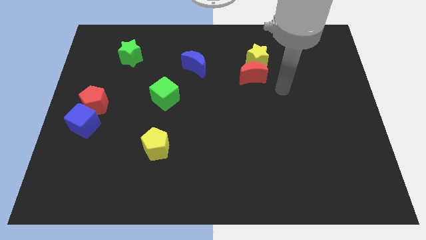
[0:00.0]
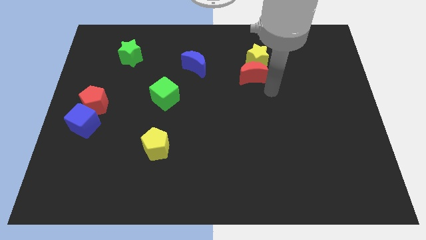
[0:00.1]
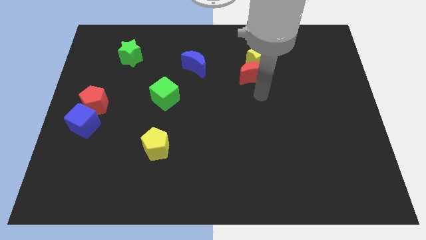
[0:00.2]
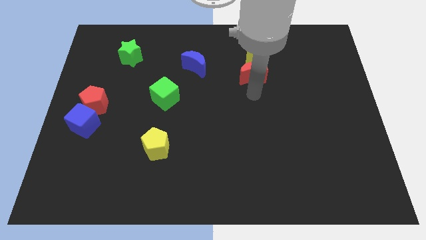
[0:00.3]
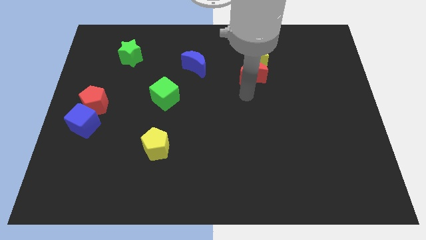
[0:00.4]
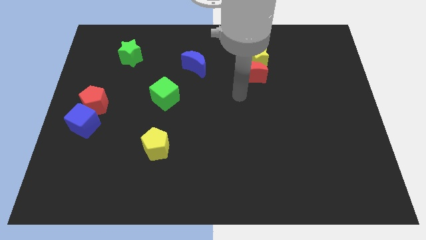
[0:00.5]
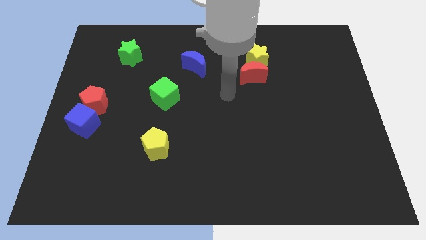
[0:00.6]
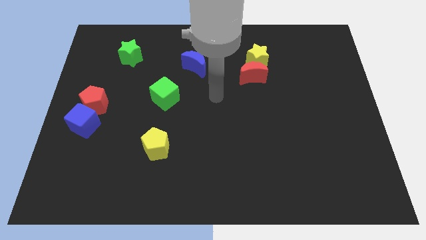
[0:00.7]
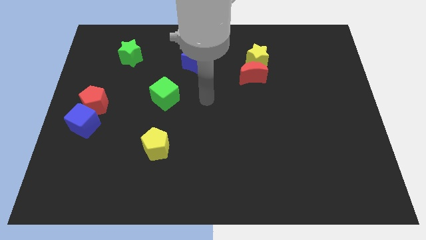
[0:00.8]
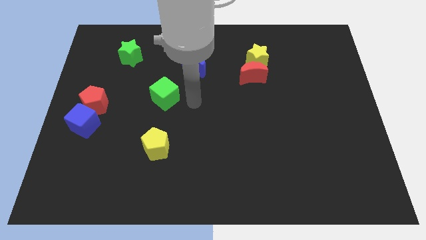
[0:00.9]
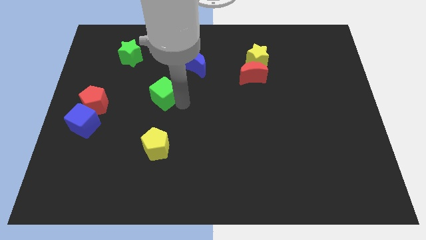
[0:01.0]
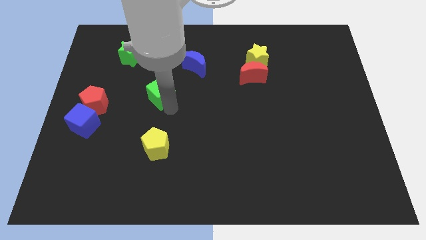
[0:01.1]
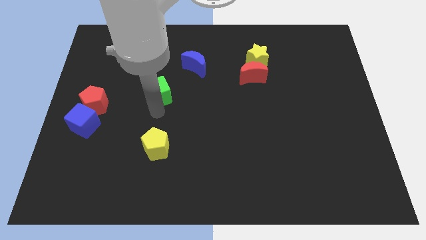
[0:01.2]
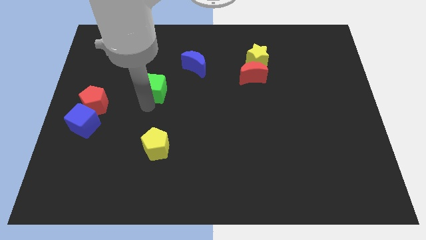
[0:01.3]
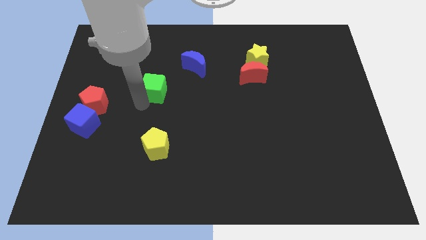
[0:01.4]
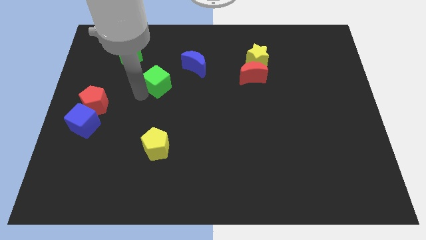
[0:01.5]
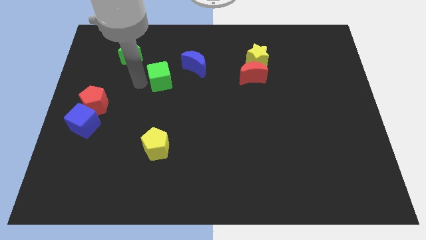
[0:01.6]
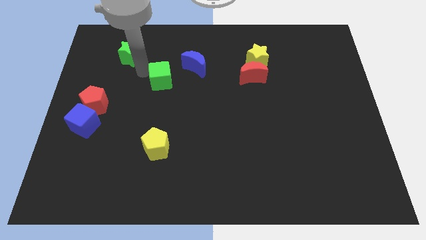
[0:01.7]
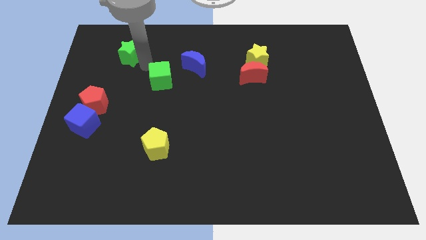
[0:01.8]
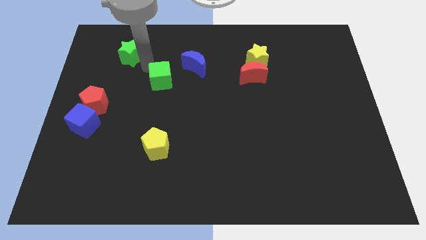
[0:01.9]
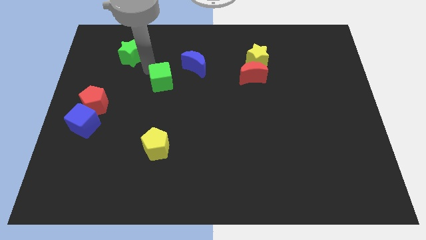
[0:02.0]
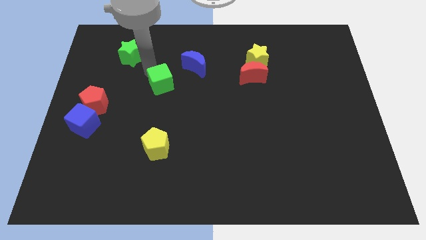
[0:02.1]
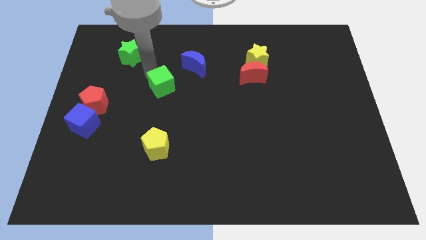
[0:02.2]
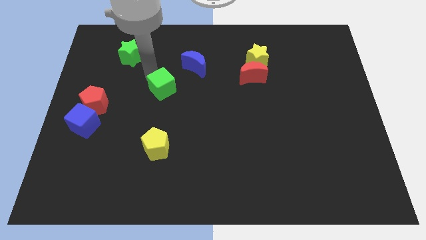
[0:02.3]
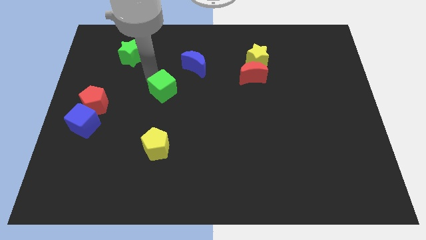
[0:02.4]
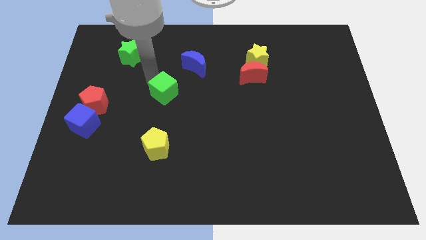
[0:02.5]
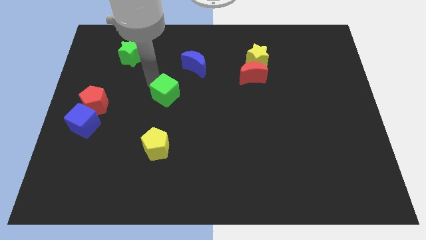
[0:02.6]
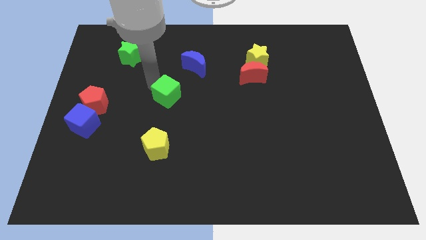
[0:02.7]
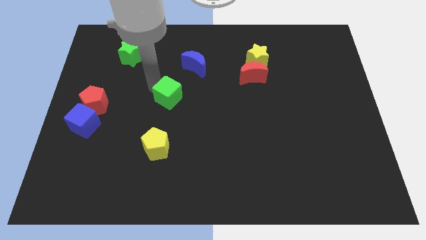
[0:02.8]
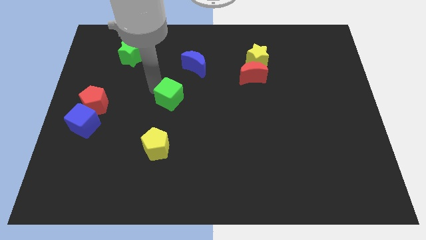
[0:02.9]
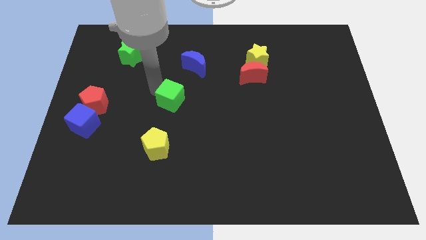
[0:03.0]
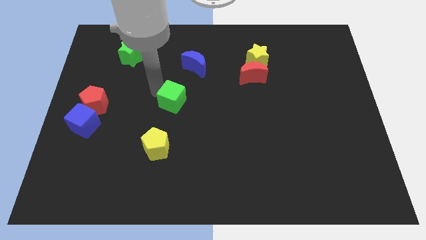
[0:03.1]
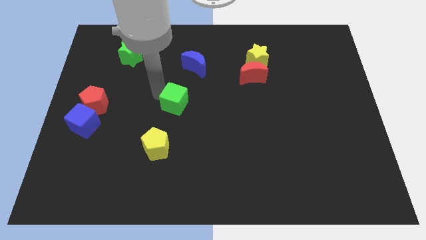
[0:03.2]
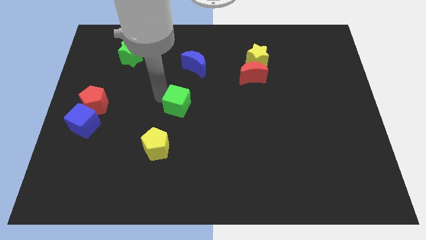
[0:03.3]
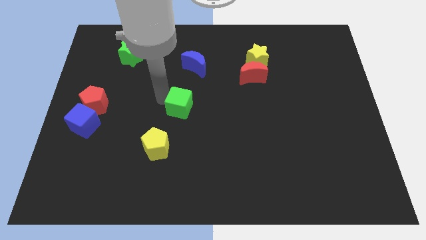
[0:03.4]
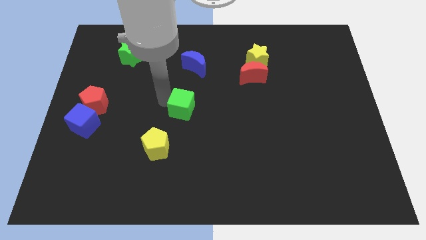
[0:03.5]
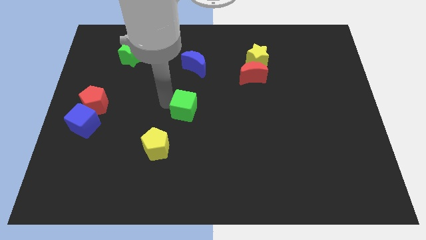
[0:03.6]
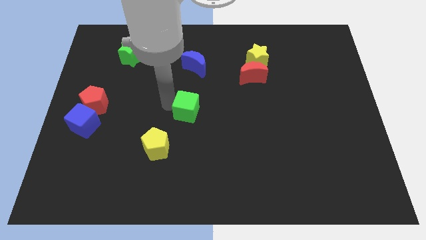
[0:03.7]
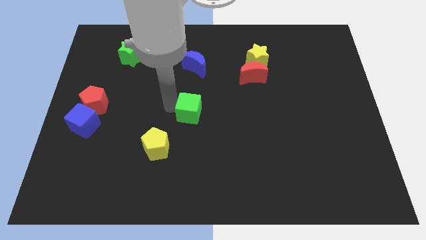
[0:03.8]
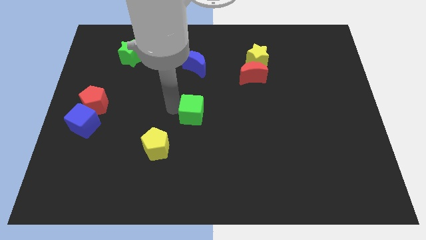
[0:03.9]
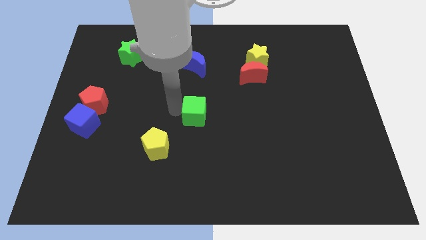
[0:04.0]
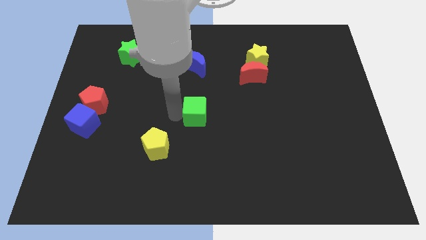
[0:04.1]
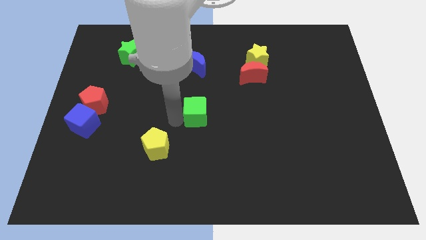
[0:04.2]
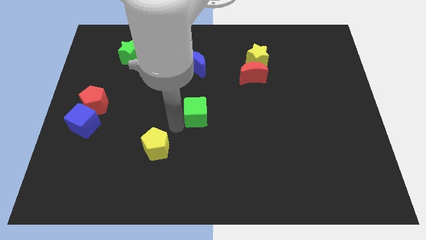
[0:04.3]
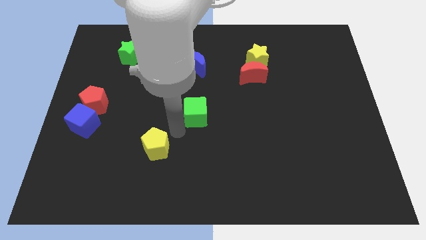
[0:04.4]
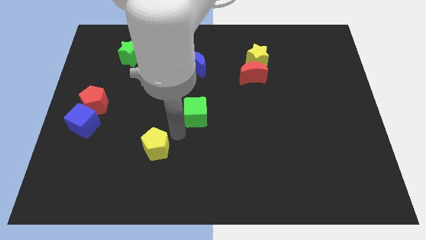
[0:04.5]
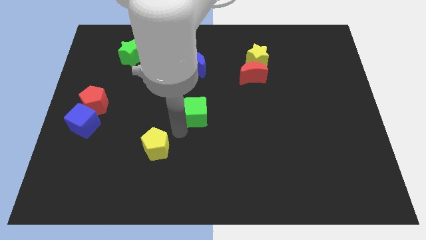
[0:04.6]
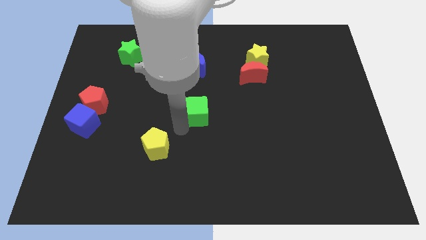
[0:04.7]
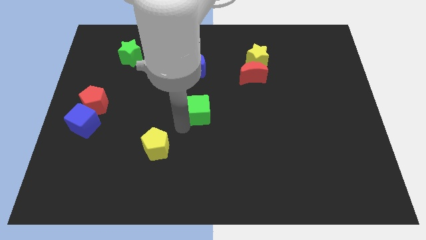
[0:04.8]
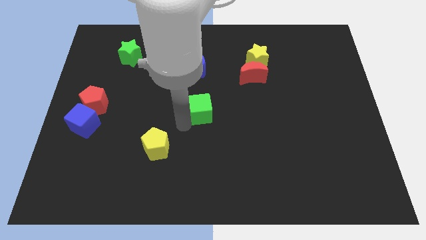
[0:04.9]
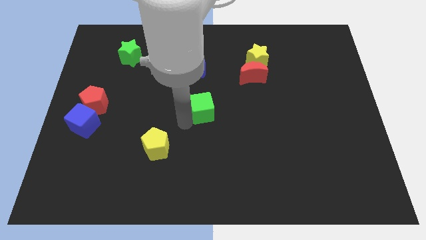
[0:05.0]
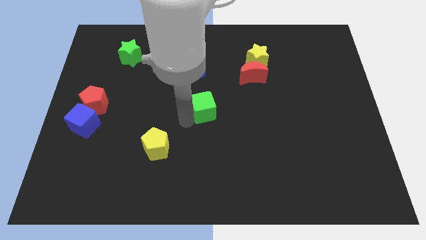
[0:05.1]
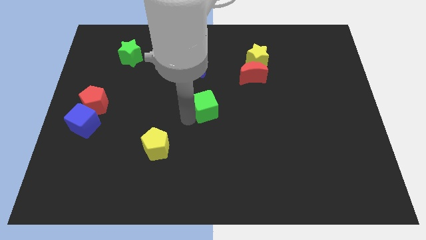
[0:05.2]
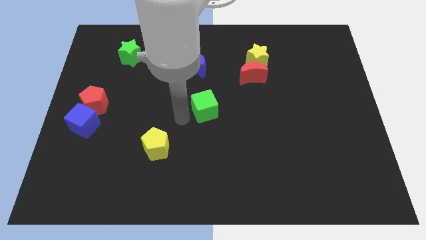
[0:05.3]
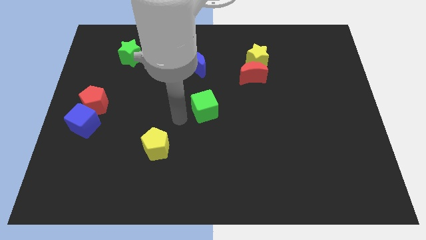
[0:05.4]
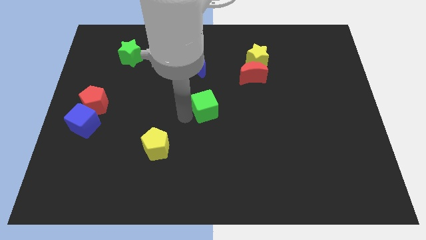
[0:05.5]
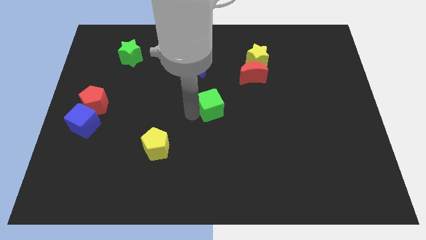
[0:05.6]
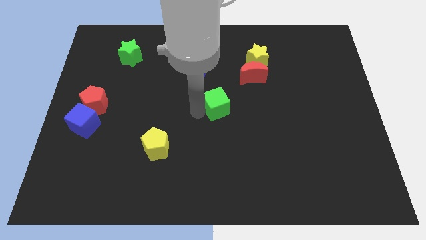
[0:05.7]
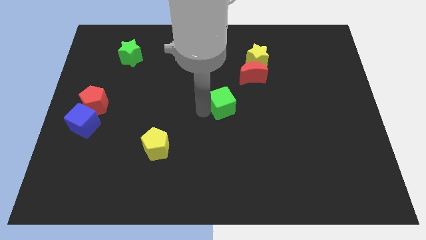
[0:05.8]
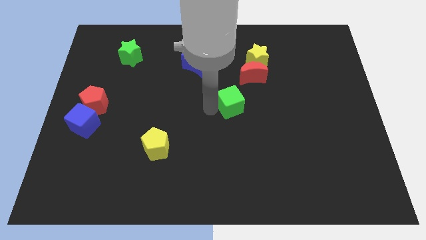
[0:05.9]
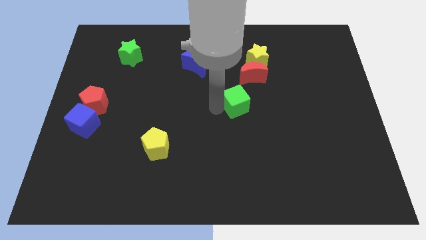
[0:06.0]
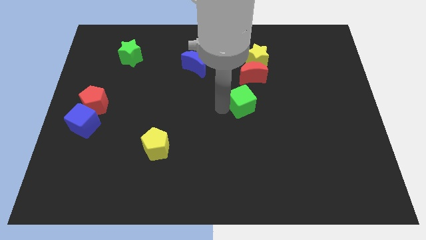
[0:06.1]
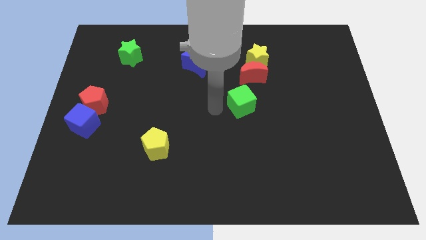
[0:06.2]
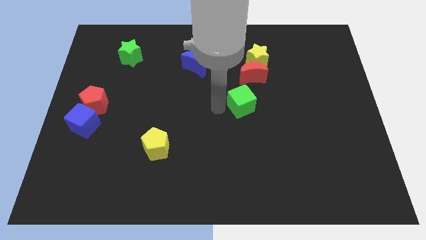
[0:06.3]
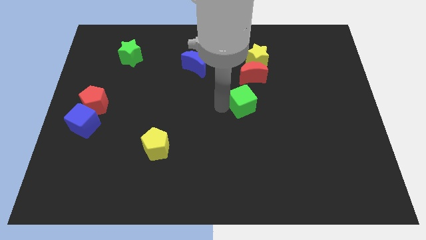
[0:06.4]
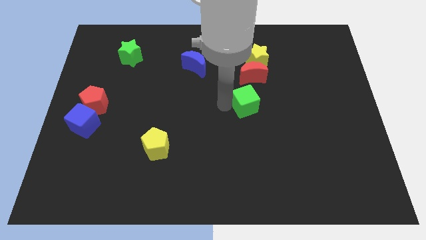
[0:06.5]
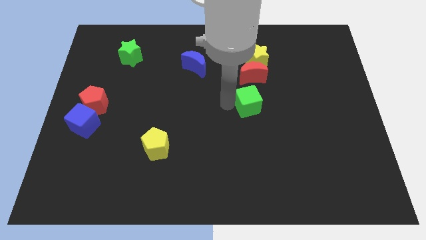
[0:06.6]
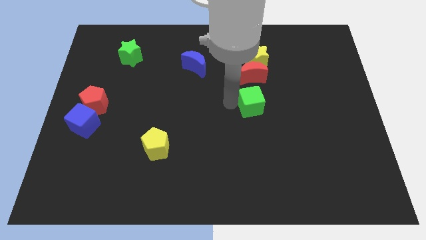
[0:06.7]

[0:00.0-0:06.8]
slide the green cube right

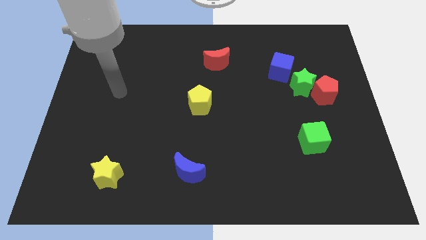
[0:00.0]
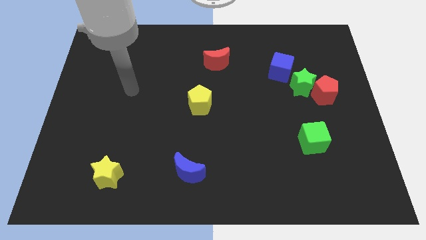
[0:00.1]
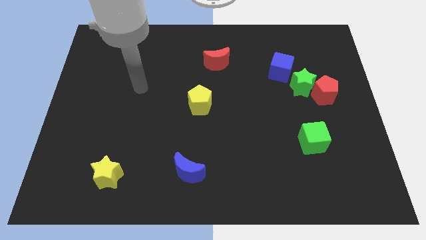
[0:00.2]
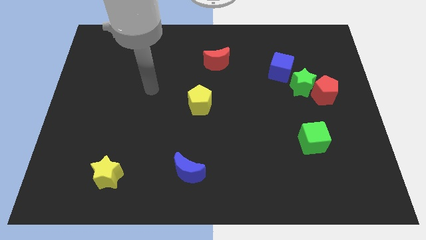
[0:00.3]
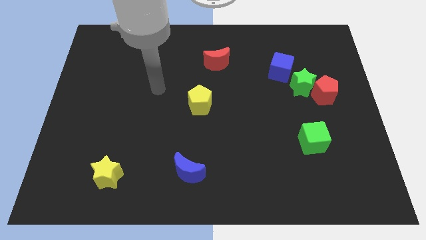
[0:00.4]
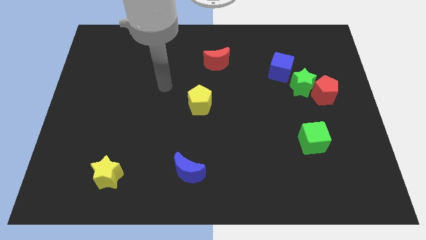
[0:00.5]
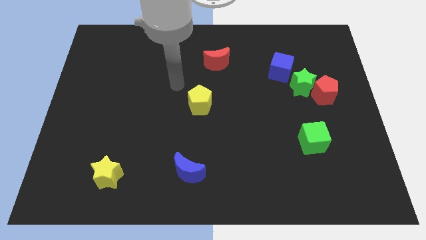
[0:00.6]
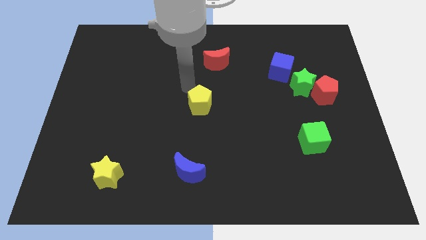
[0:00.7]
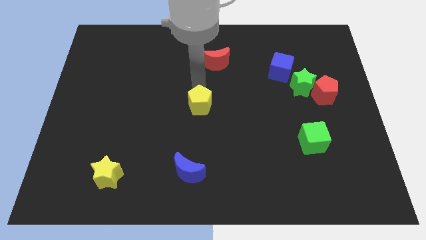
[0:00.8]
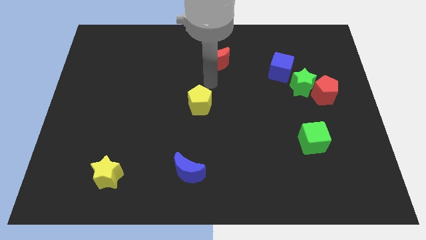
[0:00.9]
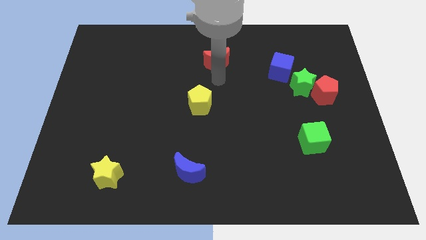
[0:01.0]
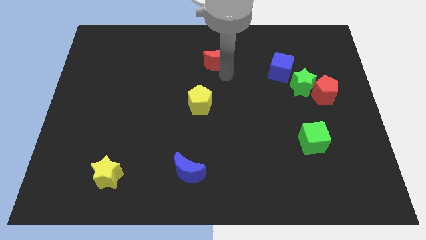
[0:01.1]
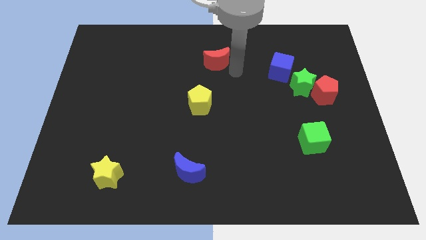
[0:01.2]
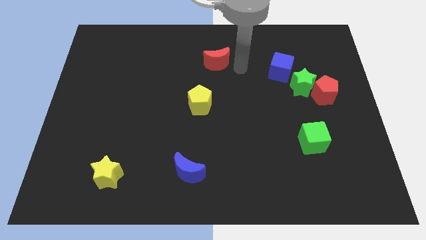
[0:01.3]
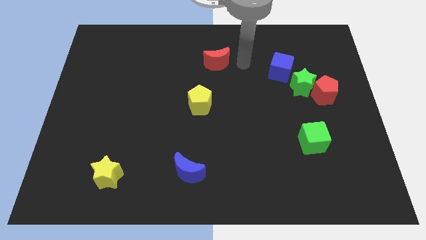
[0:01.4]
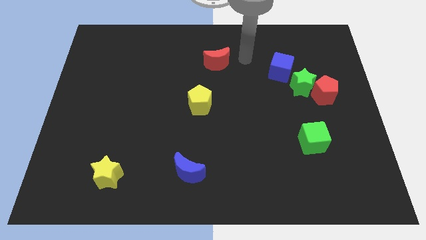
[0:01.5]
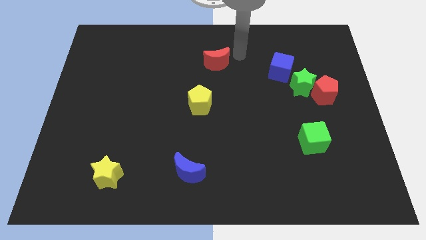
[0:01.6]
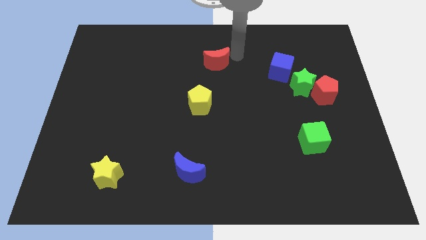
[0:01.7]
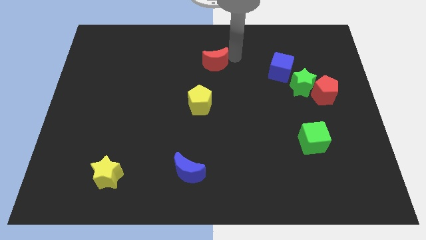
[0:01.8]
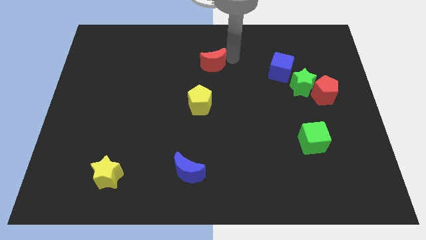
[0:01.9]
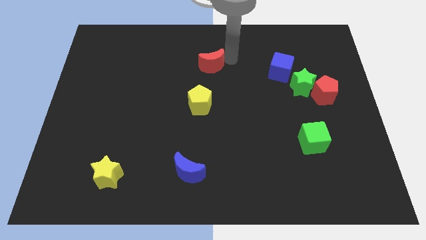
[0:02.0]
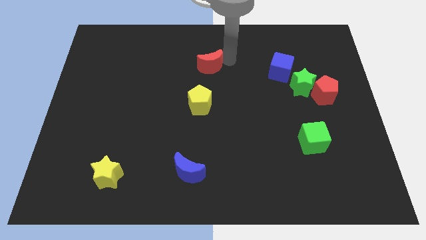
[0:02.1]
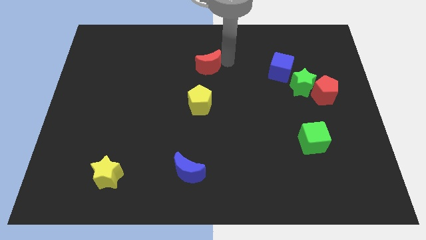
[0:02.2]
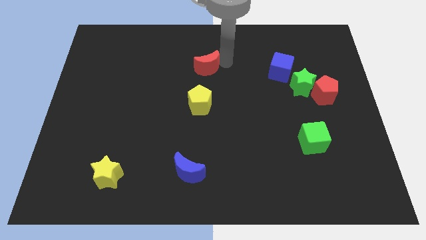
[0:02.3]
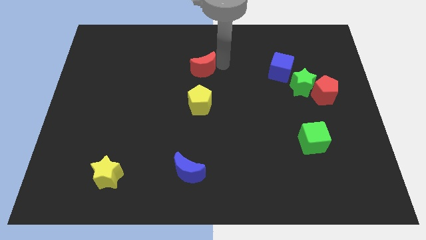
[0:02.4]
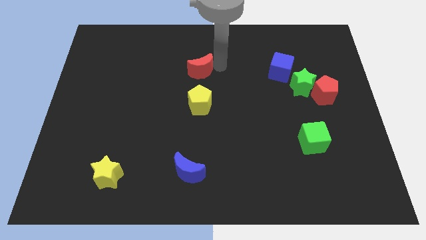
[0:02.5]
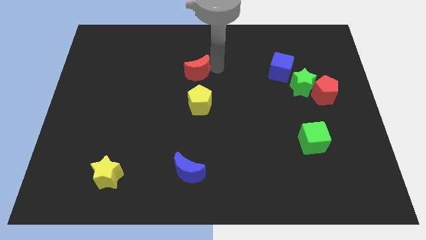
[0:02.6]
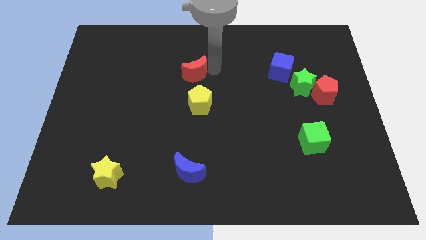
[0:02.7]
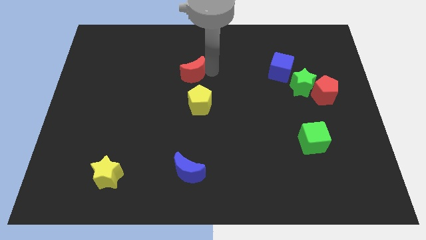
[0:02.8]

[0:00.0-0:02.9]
push the red moon diagonally down and left a little bit
